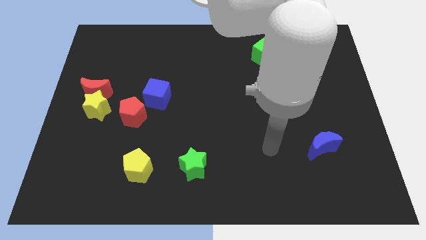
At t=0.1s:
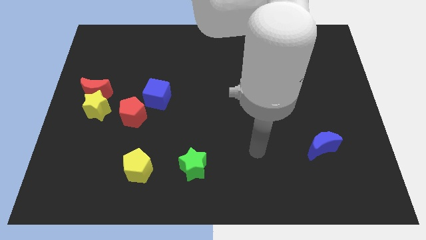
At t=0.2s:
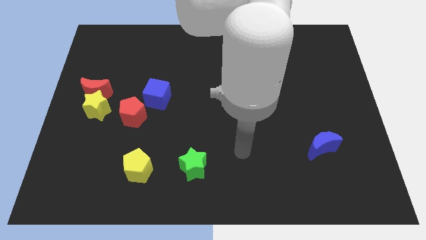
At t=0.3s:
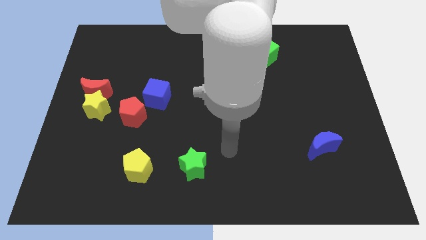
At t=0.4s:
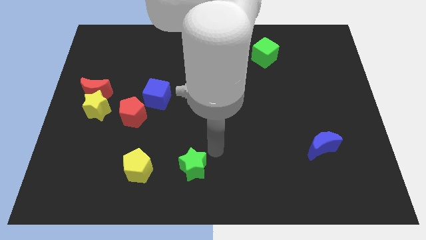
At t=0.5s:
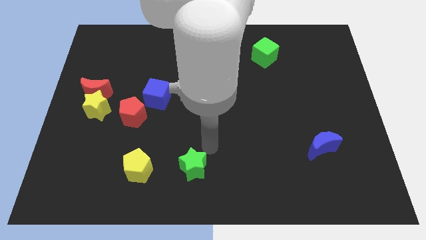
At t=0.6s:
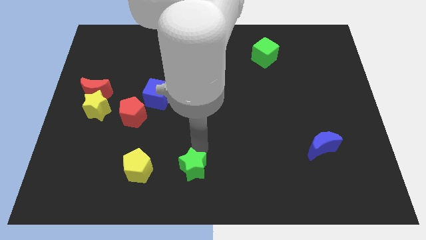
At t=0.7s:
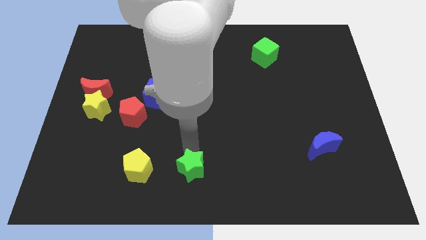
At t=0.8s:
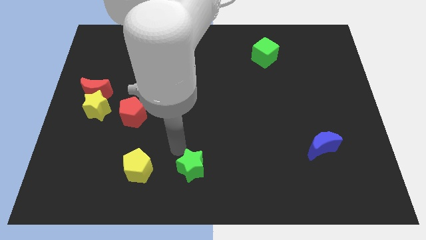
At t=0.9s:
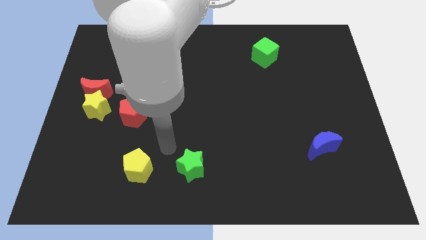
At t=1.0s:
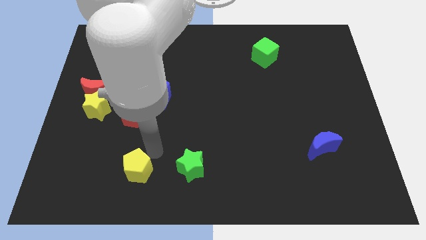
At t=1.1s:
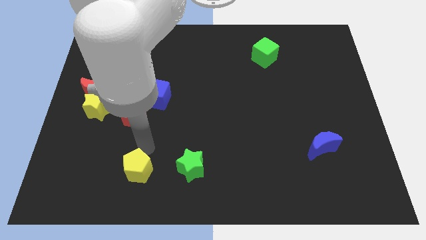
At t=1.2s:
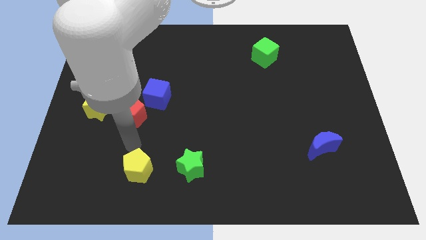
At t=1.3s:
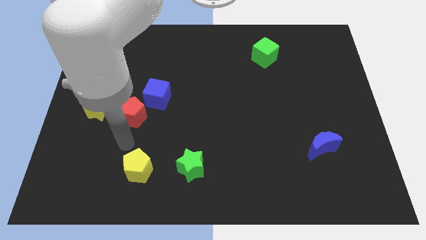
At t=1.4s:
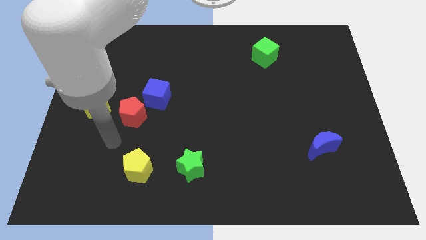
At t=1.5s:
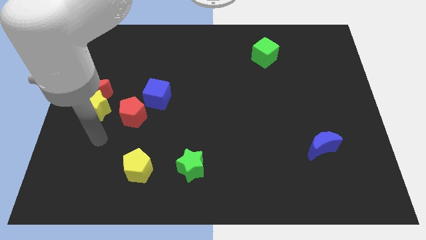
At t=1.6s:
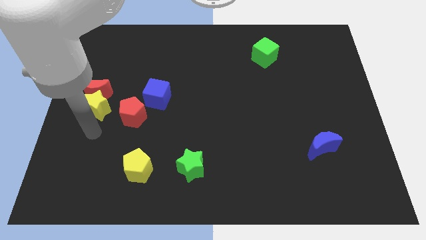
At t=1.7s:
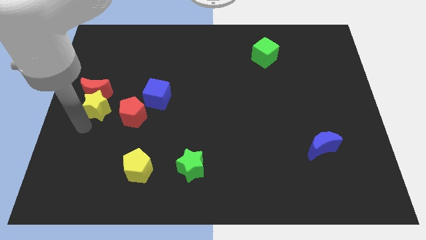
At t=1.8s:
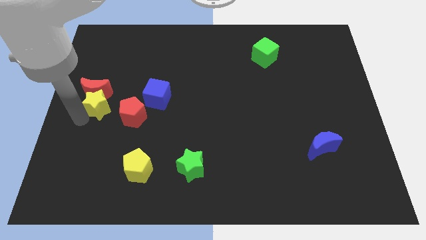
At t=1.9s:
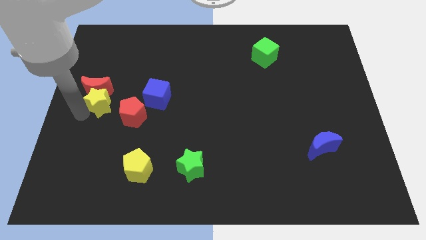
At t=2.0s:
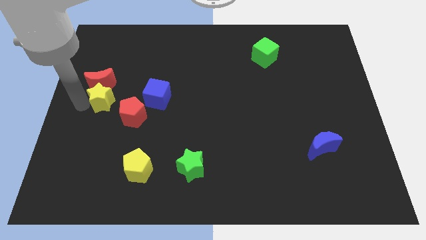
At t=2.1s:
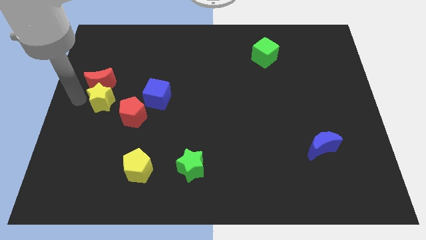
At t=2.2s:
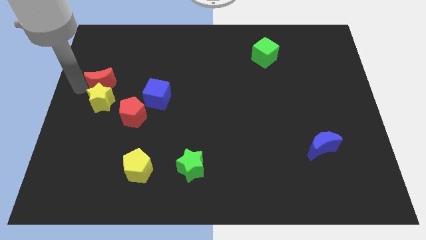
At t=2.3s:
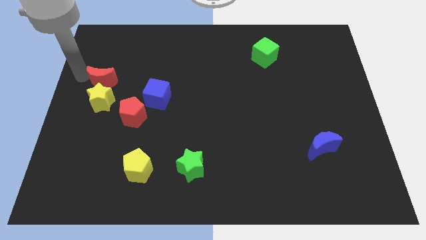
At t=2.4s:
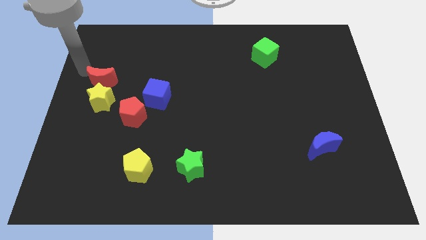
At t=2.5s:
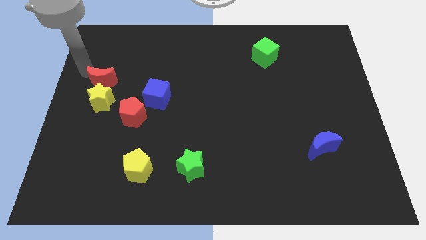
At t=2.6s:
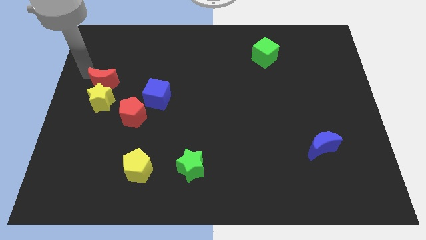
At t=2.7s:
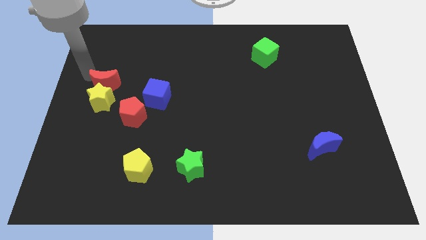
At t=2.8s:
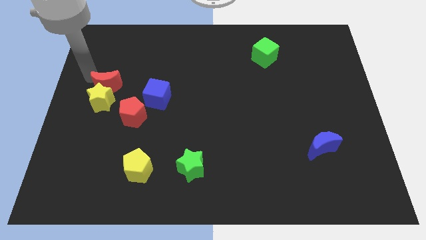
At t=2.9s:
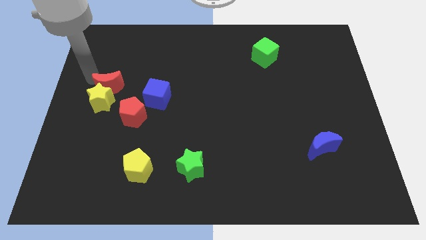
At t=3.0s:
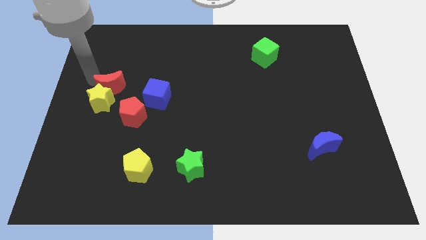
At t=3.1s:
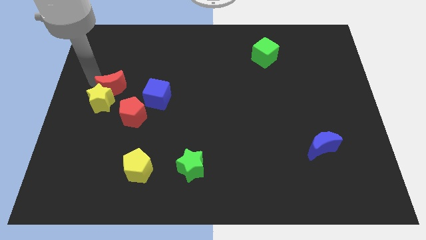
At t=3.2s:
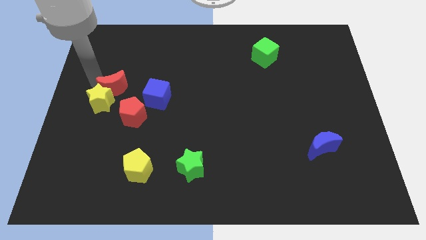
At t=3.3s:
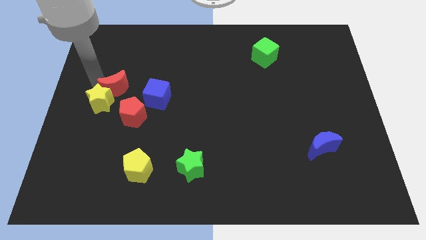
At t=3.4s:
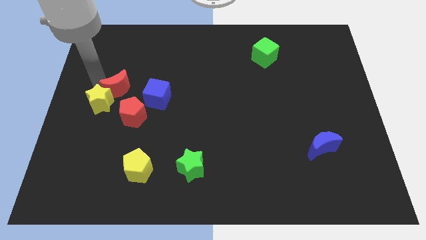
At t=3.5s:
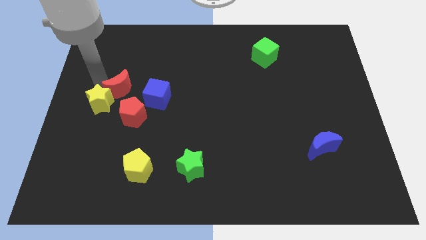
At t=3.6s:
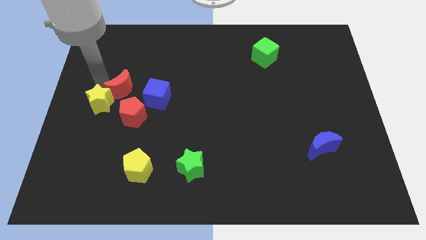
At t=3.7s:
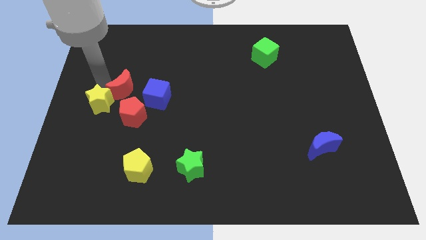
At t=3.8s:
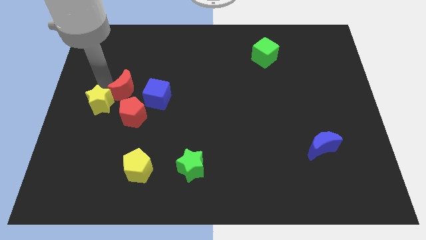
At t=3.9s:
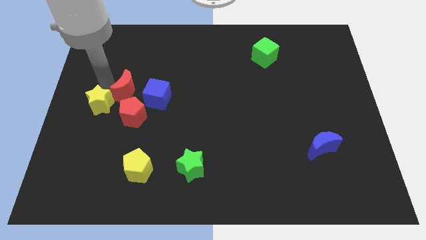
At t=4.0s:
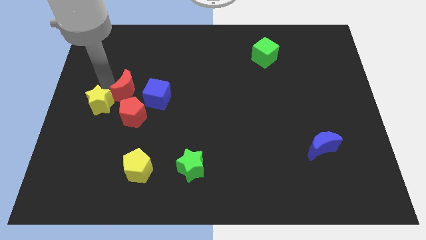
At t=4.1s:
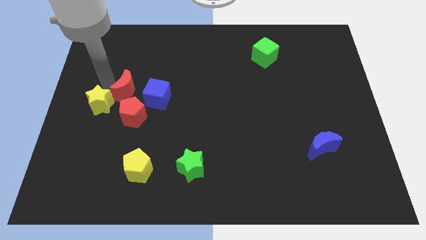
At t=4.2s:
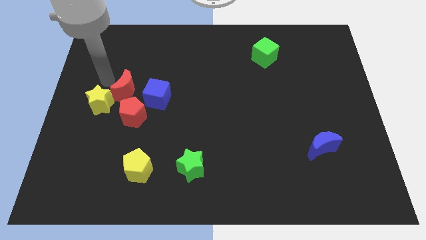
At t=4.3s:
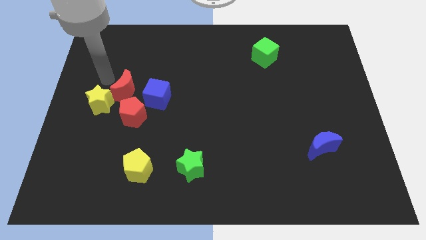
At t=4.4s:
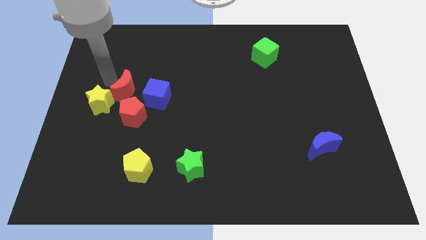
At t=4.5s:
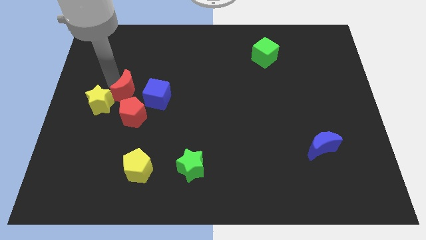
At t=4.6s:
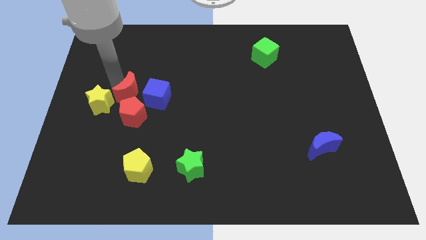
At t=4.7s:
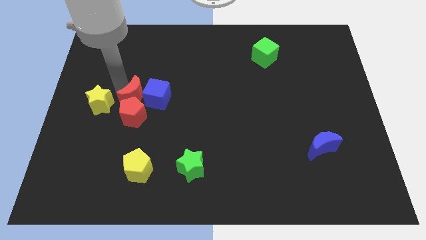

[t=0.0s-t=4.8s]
move the red moon next to the blue cube

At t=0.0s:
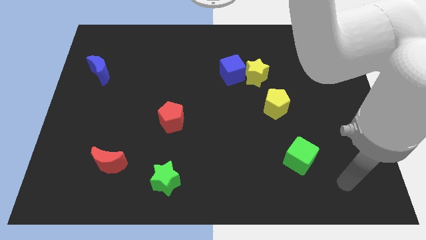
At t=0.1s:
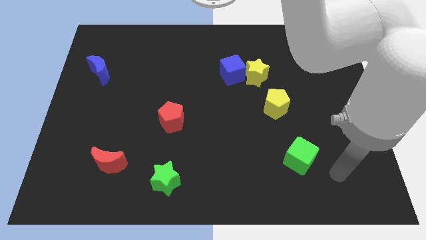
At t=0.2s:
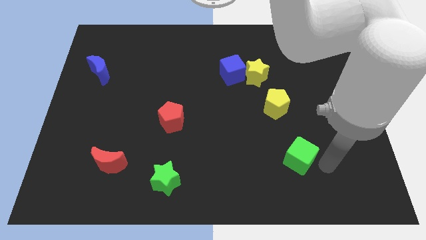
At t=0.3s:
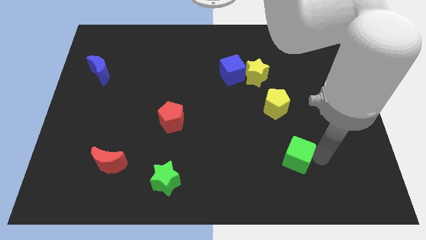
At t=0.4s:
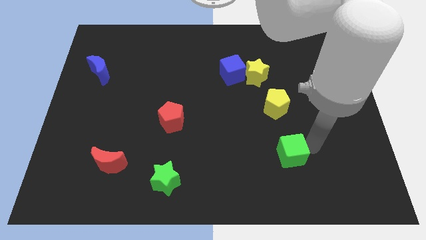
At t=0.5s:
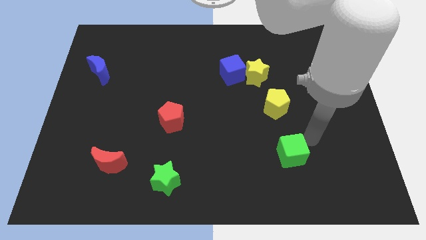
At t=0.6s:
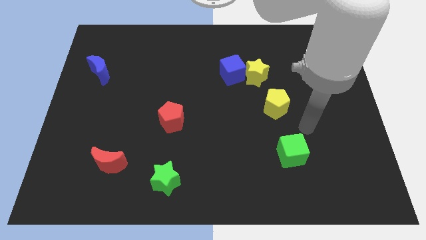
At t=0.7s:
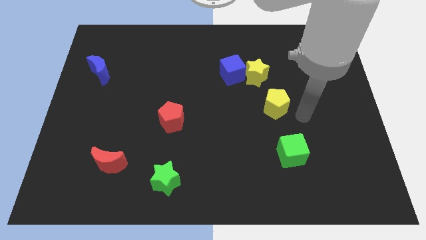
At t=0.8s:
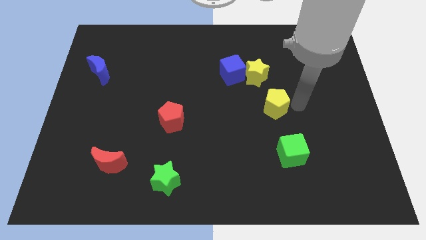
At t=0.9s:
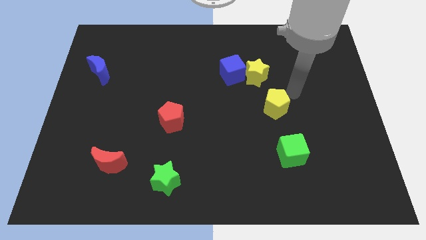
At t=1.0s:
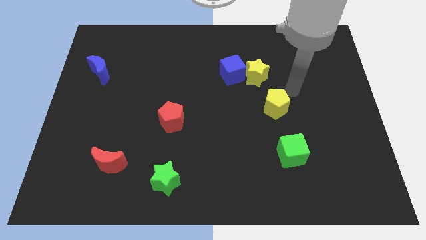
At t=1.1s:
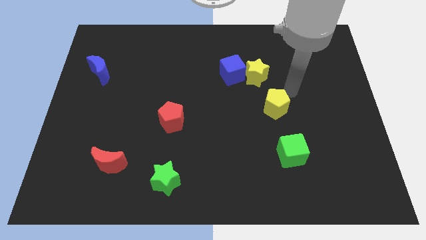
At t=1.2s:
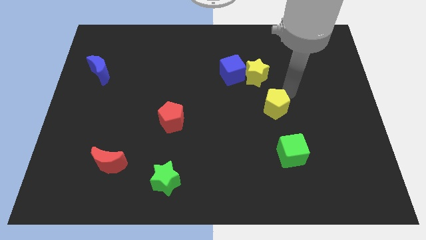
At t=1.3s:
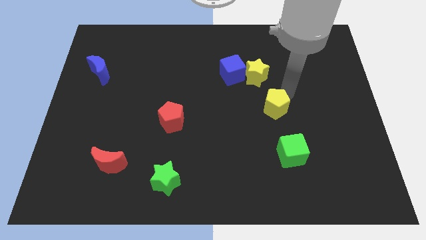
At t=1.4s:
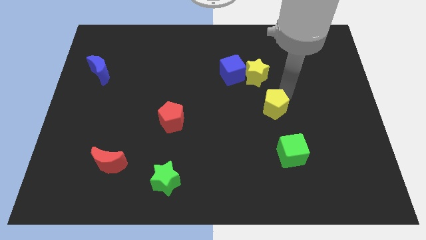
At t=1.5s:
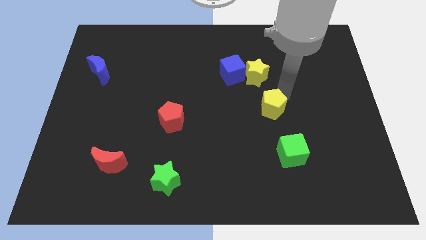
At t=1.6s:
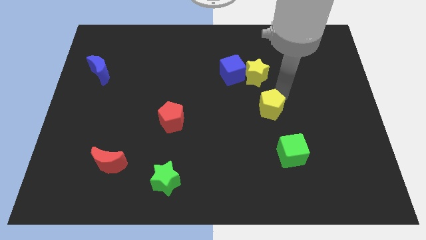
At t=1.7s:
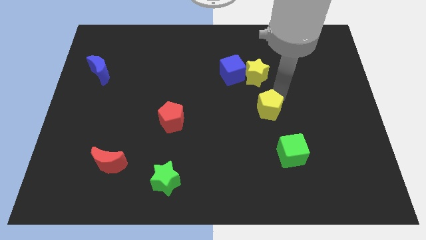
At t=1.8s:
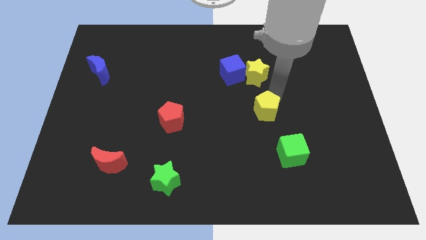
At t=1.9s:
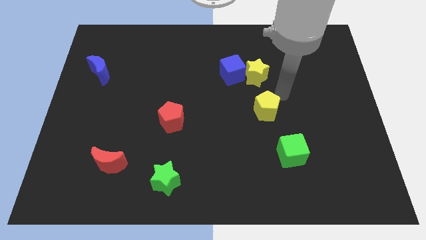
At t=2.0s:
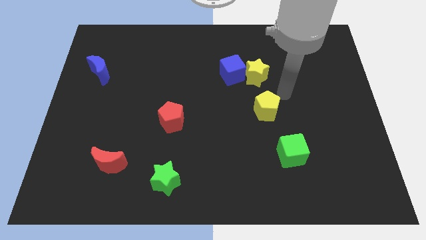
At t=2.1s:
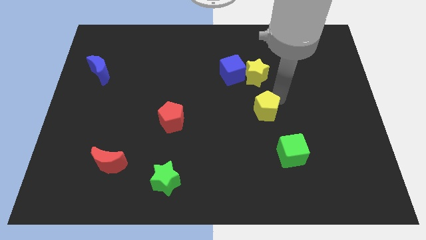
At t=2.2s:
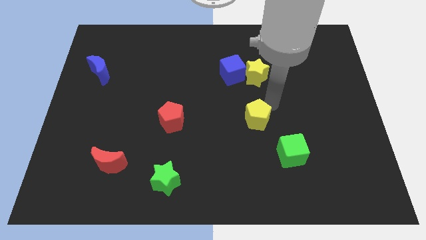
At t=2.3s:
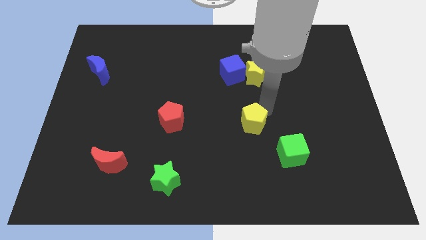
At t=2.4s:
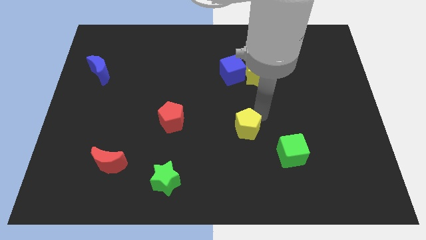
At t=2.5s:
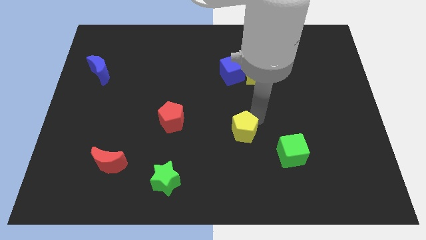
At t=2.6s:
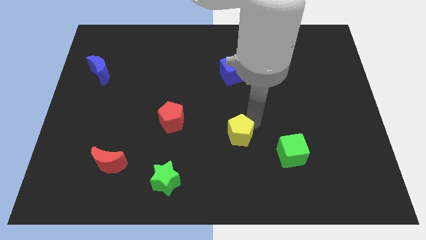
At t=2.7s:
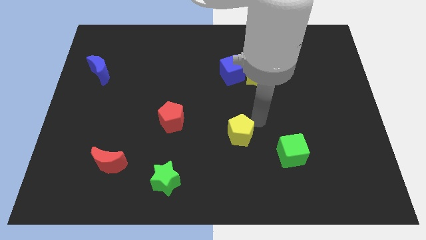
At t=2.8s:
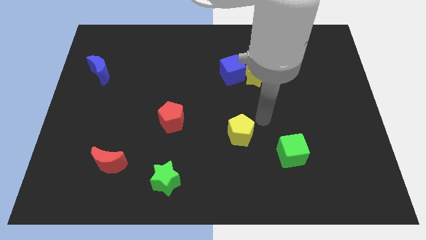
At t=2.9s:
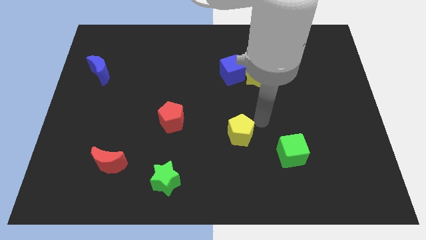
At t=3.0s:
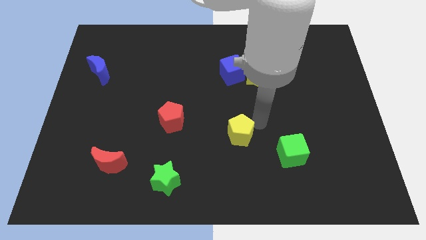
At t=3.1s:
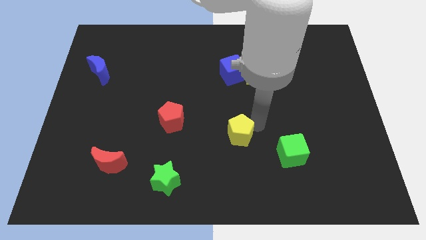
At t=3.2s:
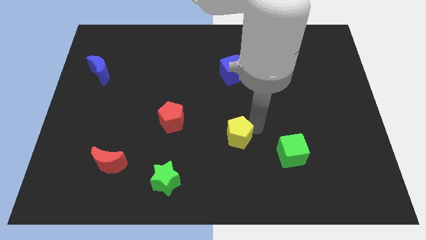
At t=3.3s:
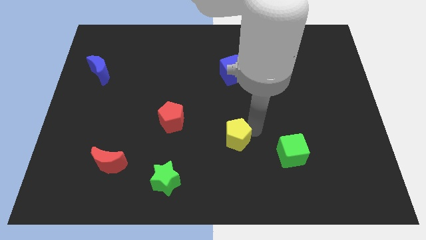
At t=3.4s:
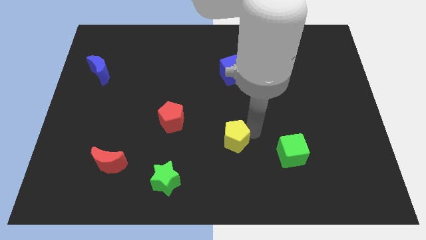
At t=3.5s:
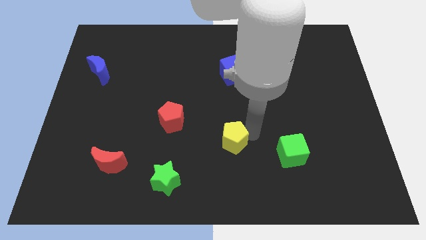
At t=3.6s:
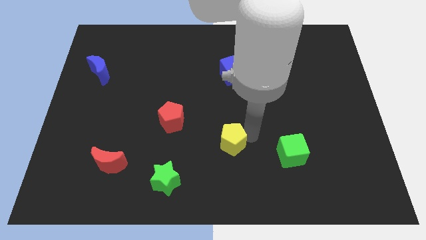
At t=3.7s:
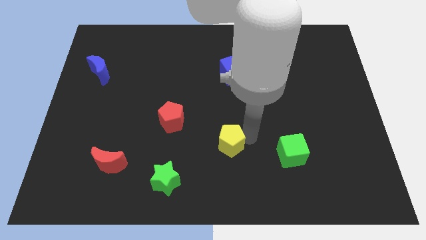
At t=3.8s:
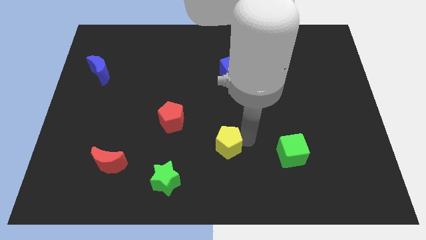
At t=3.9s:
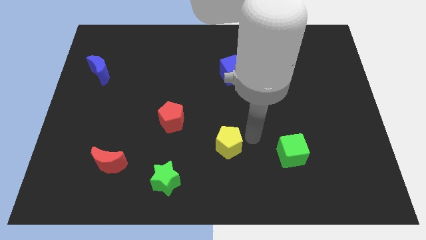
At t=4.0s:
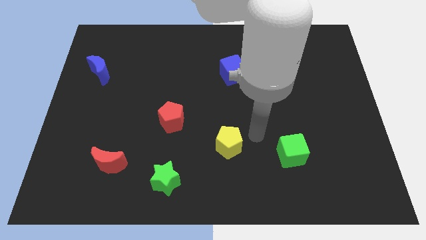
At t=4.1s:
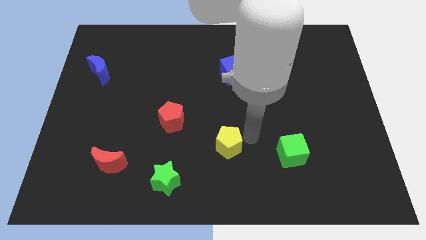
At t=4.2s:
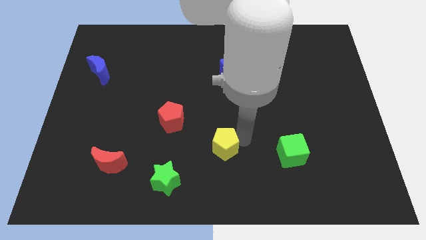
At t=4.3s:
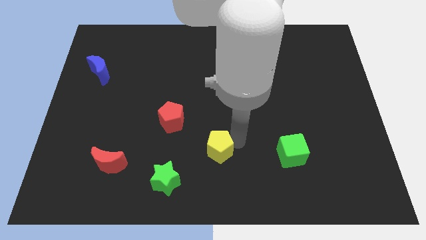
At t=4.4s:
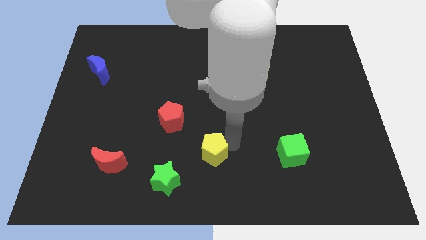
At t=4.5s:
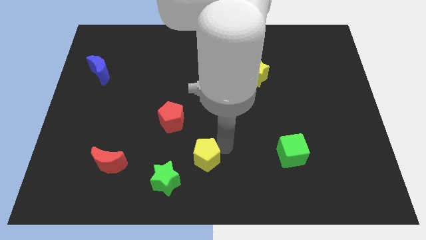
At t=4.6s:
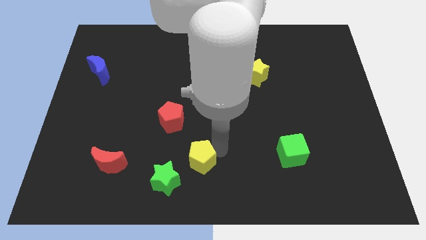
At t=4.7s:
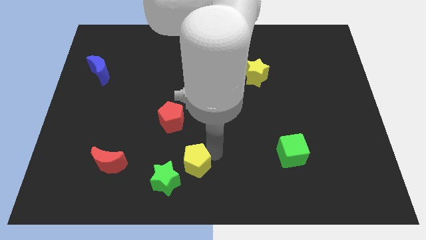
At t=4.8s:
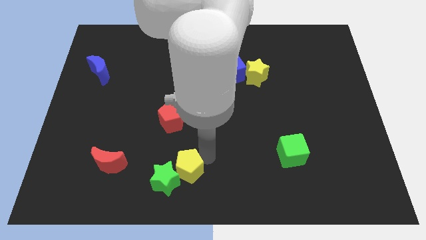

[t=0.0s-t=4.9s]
push the yellow pentagon to the green star
